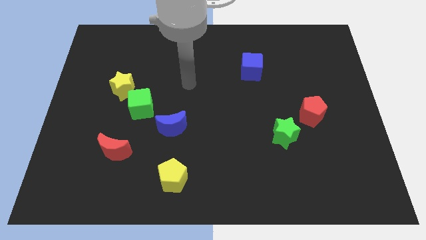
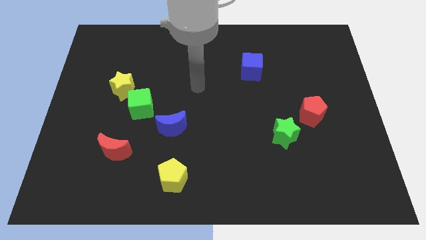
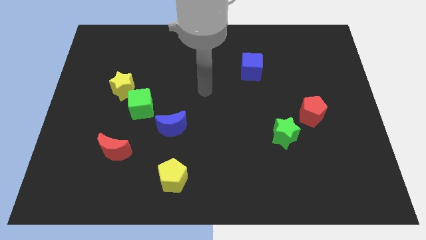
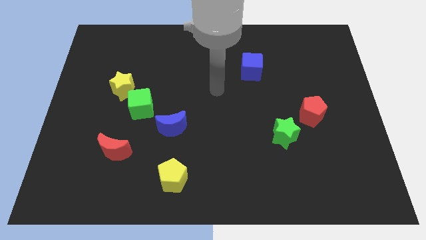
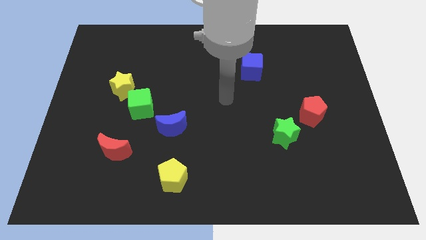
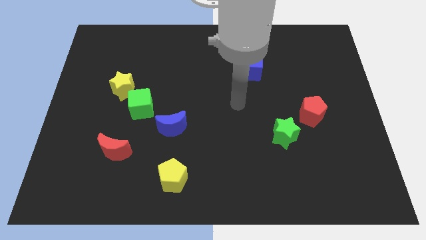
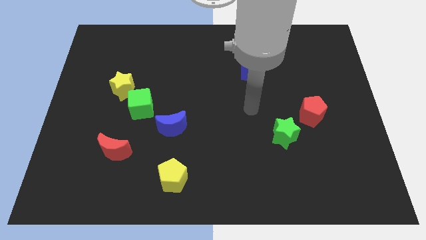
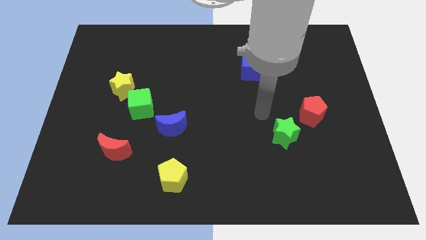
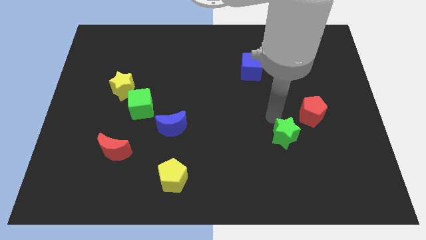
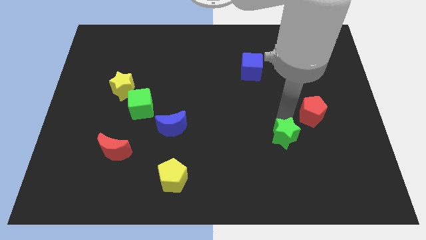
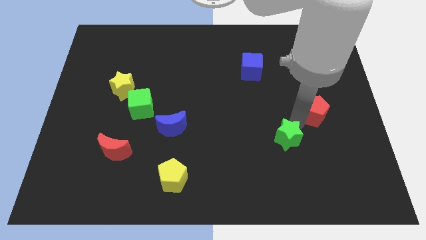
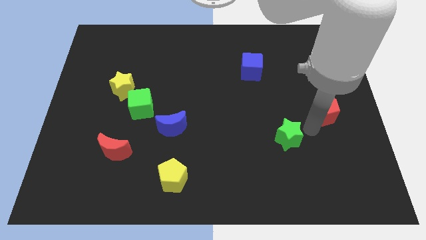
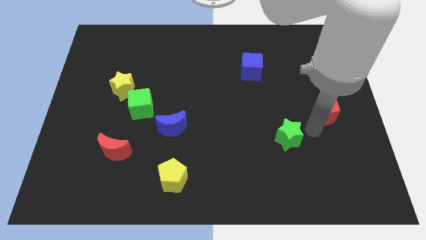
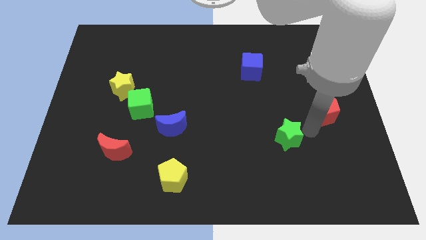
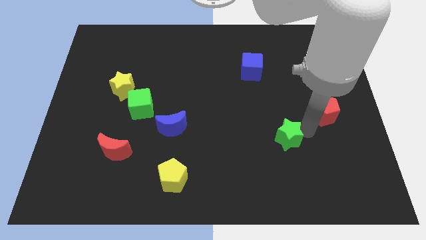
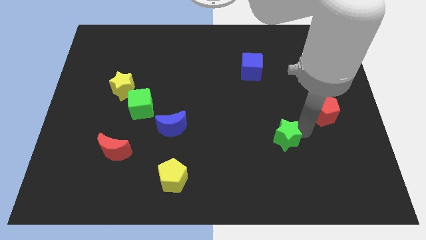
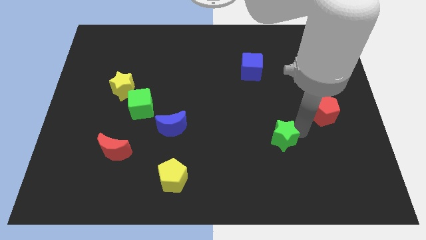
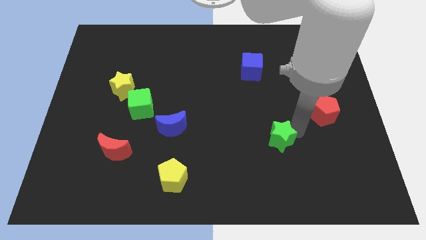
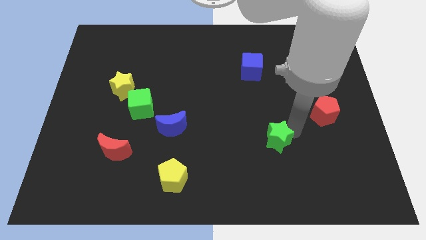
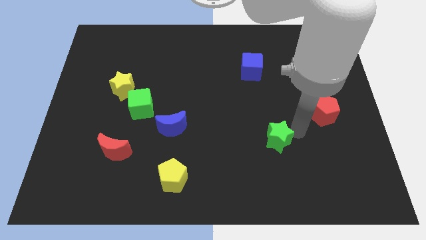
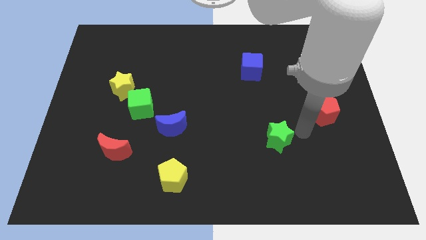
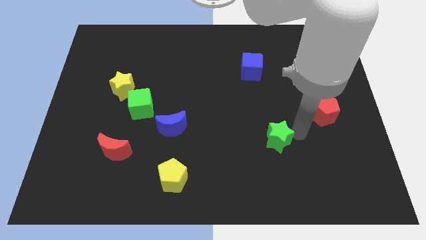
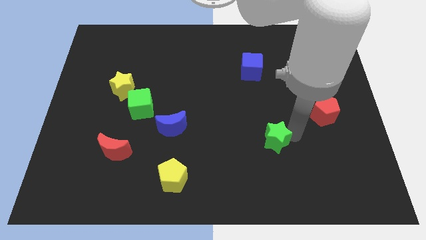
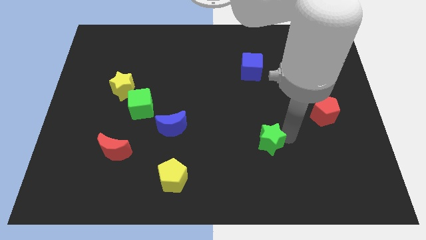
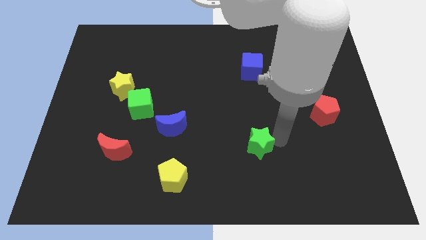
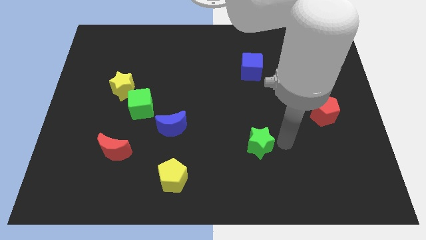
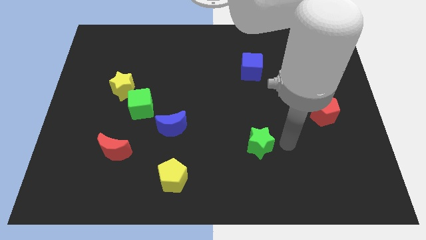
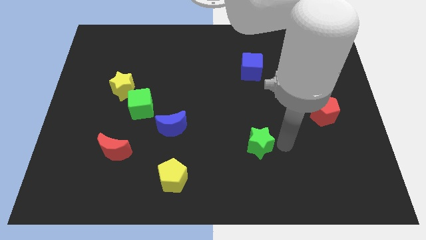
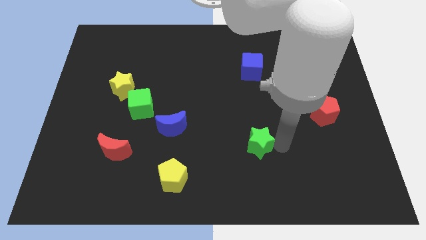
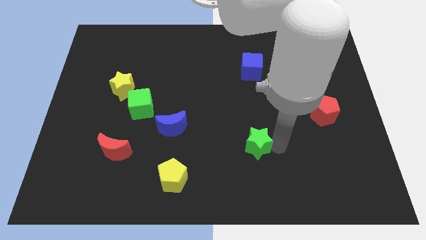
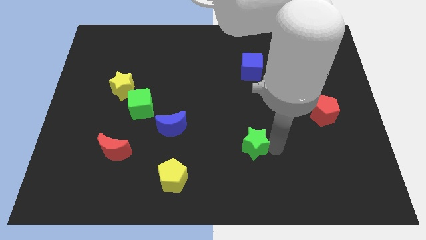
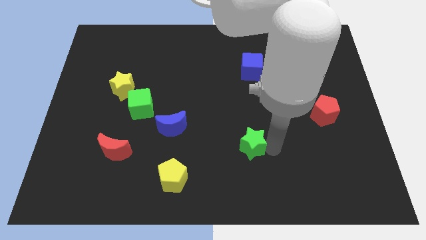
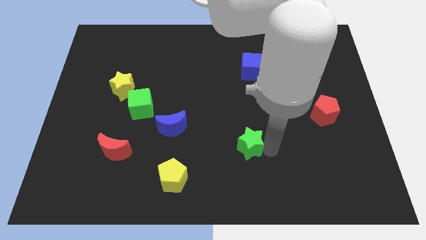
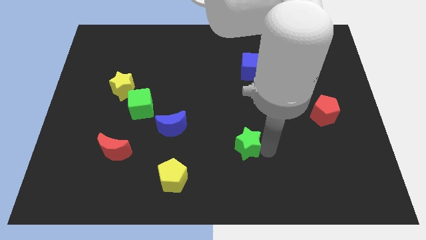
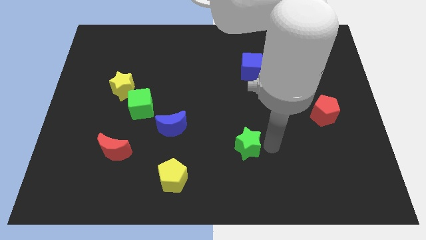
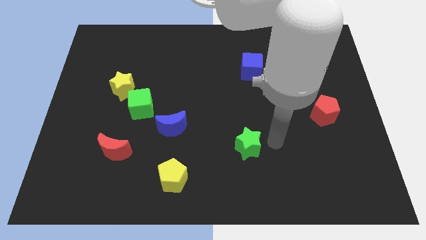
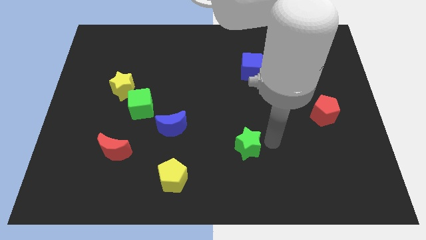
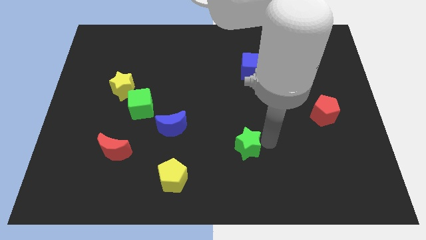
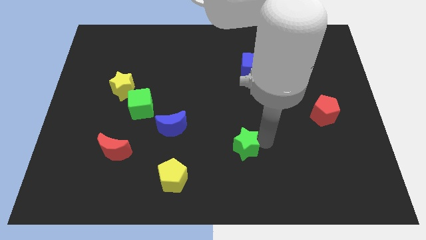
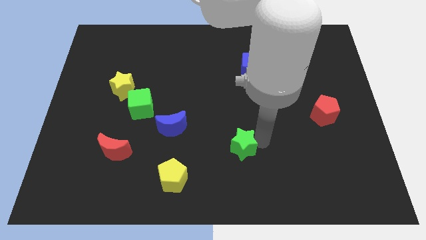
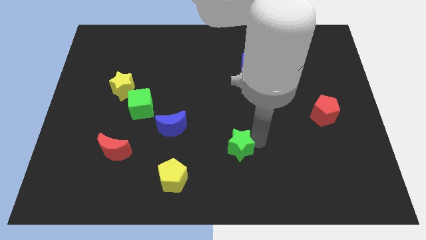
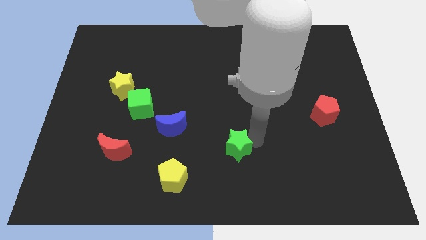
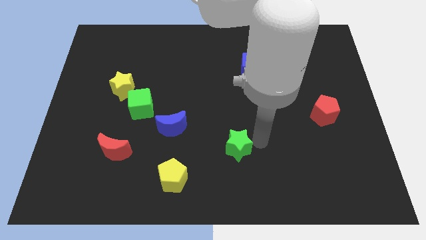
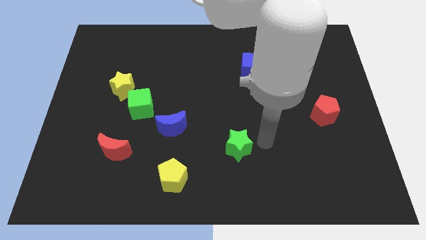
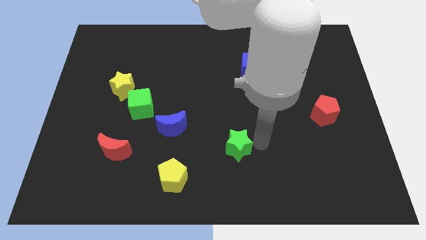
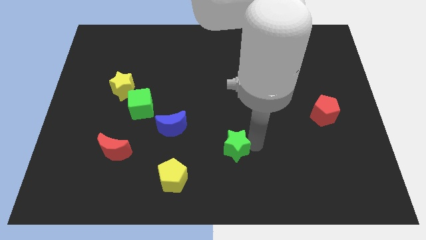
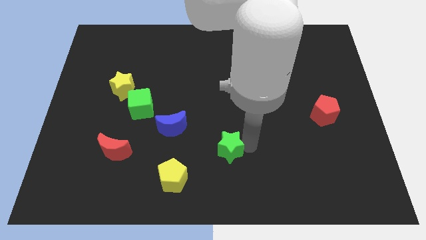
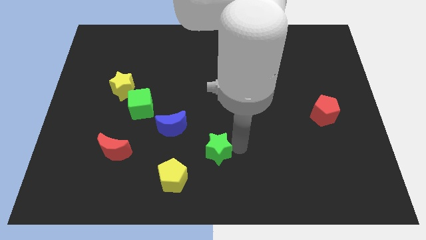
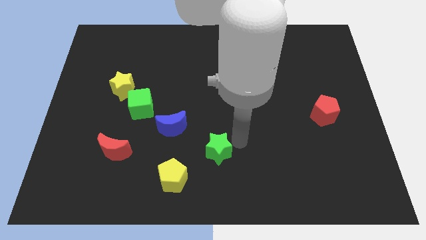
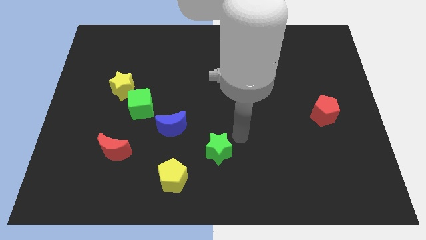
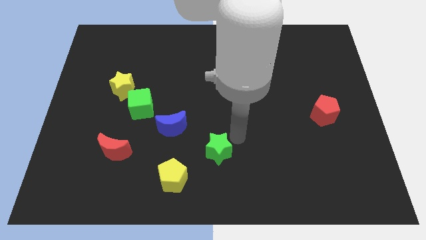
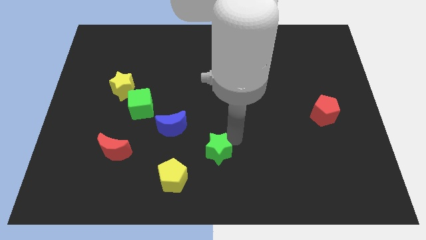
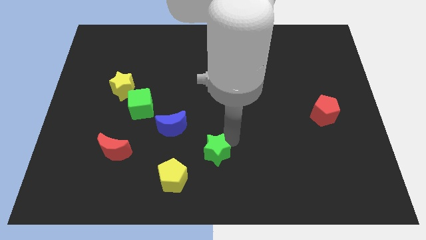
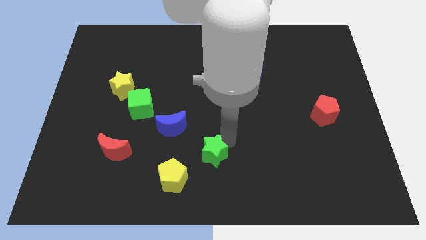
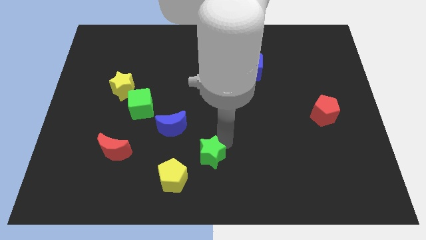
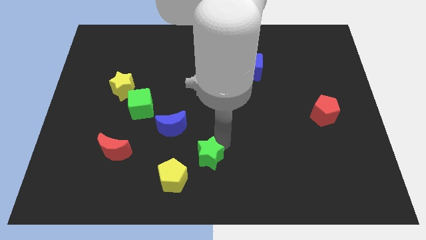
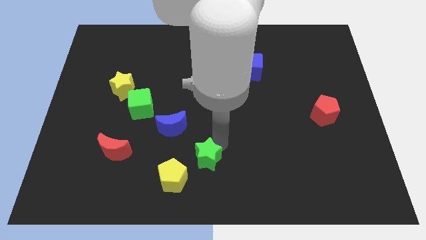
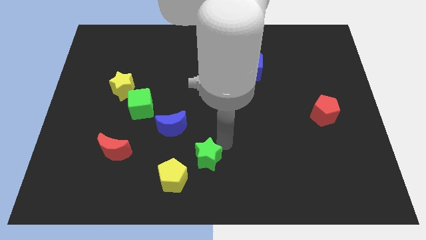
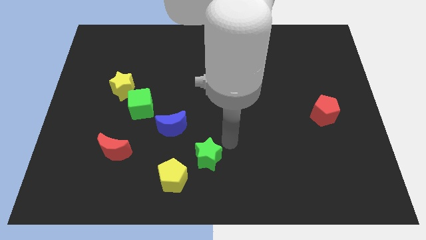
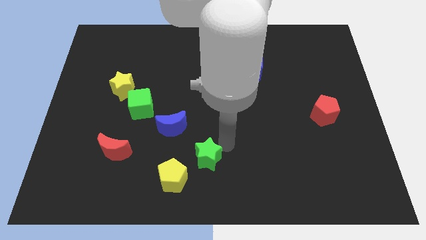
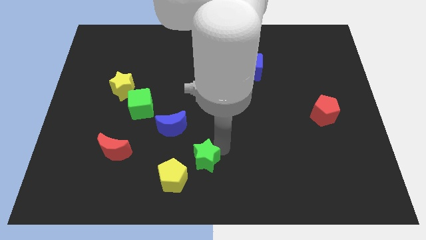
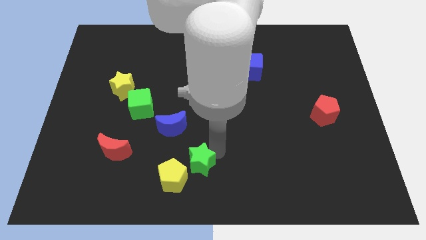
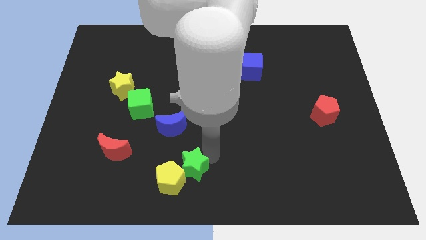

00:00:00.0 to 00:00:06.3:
move the green star towards the yellow pentagon

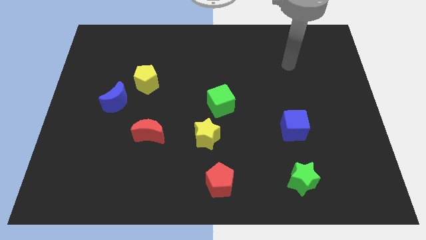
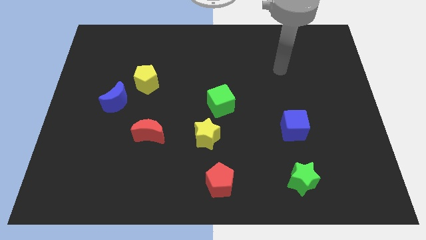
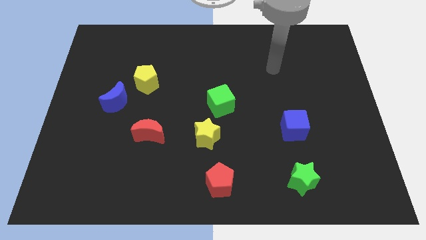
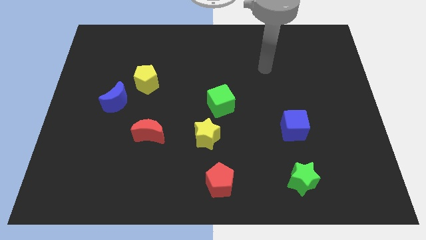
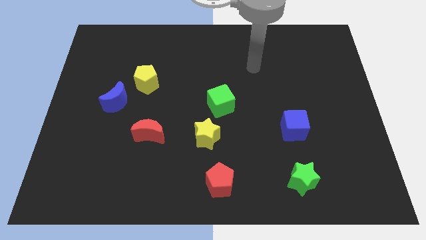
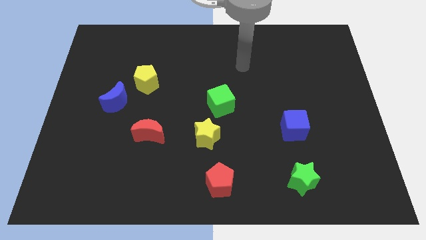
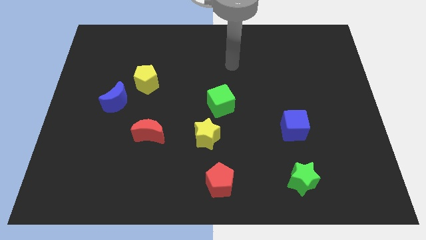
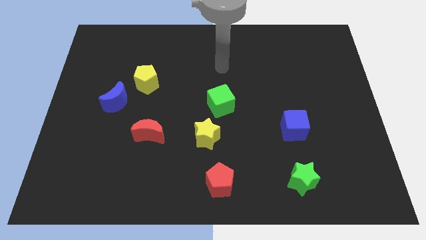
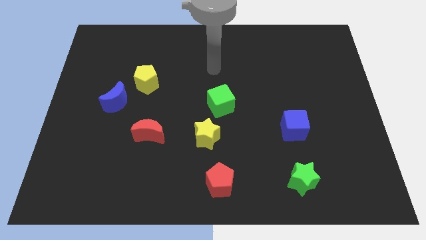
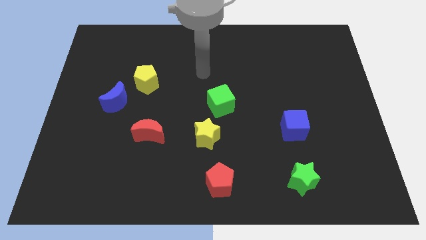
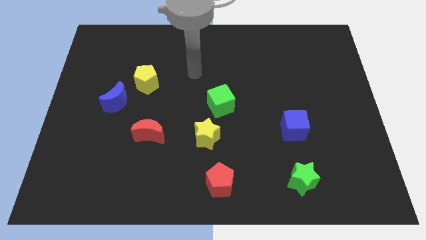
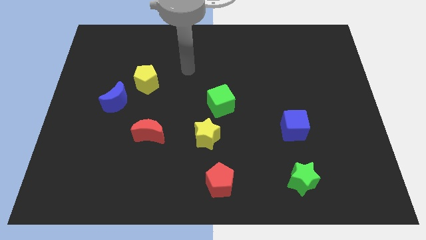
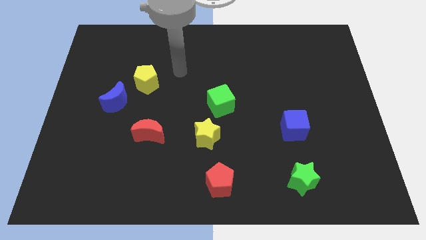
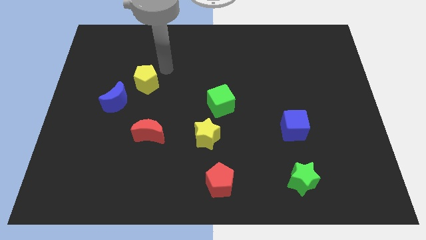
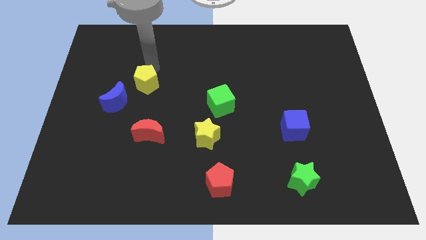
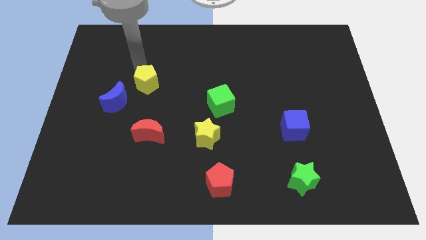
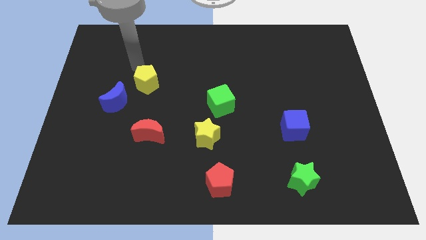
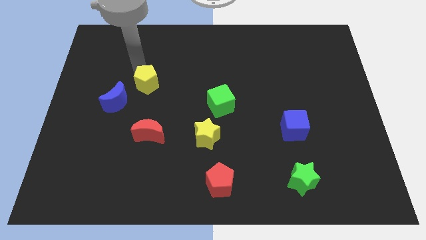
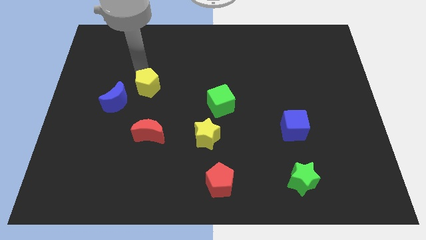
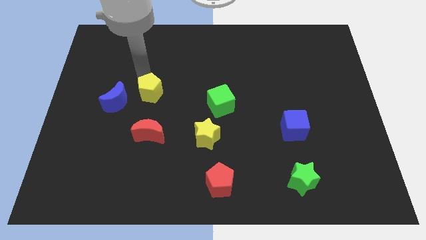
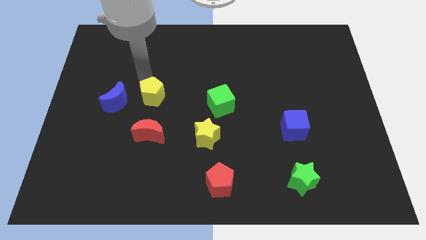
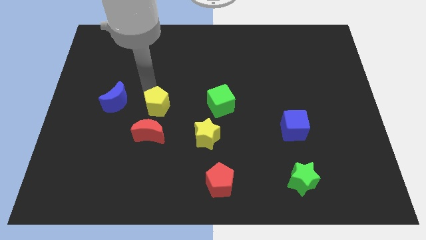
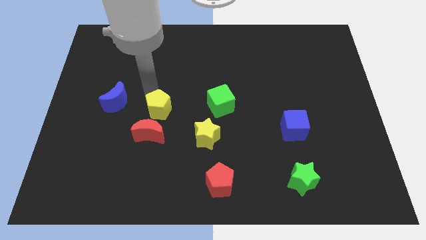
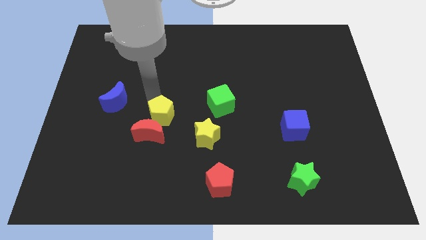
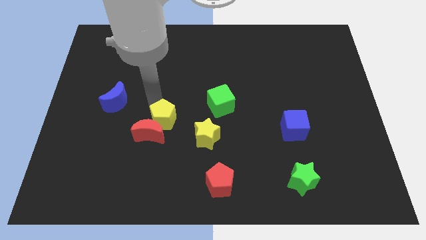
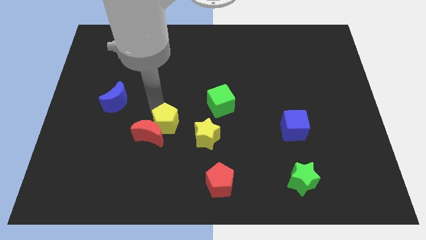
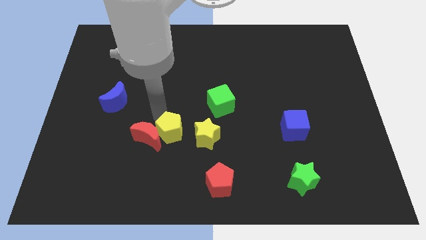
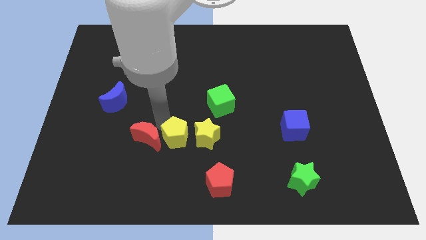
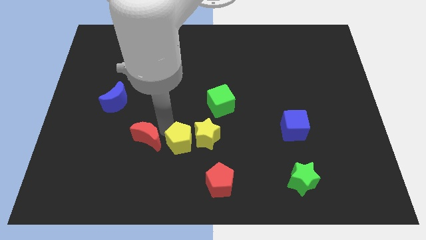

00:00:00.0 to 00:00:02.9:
put the yellow pentagon to the yellow star
